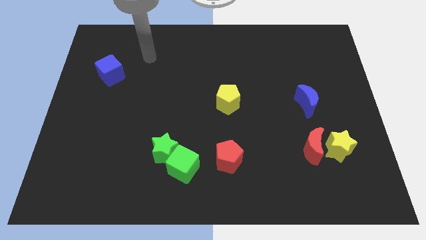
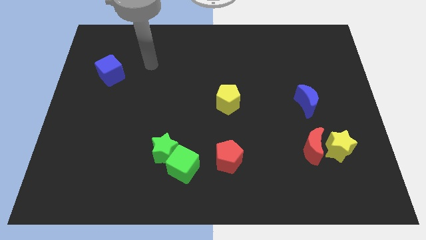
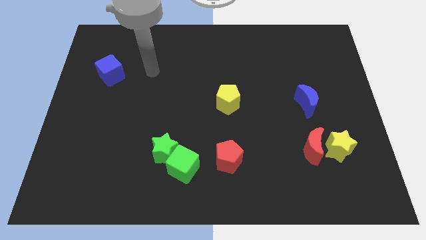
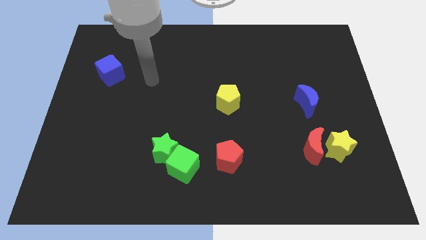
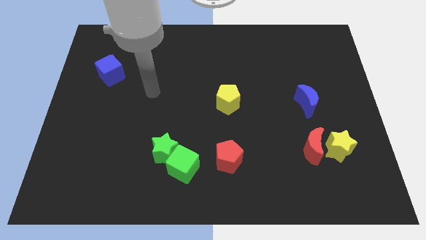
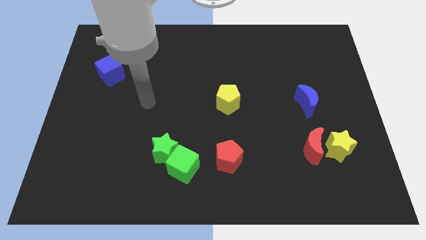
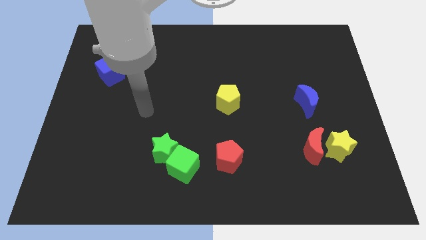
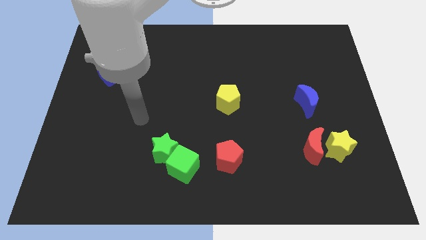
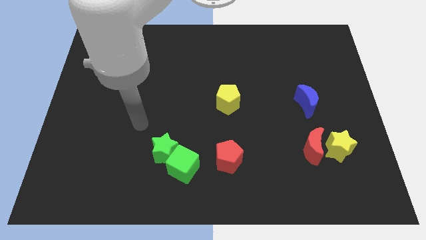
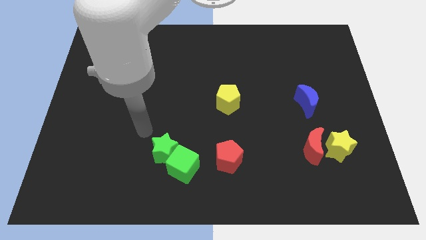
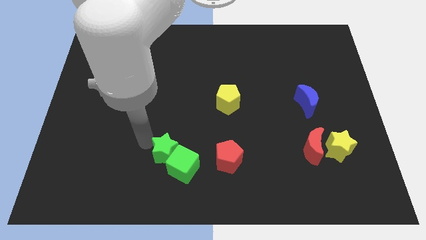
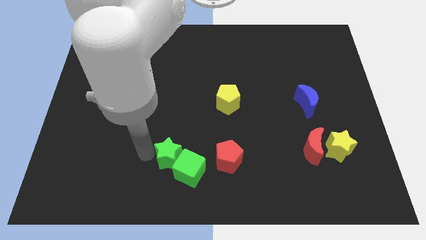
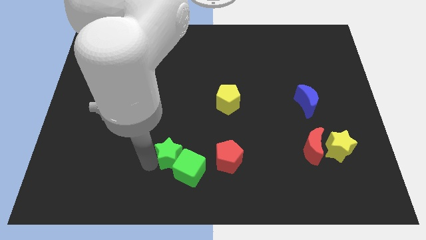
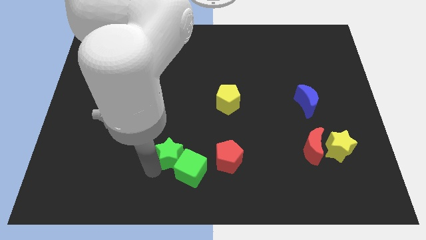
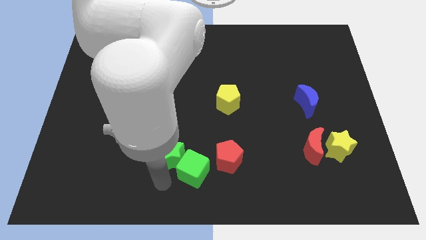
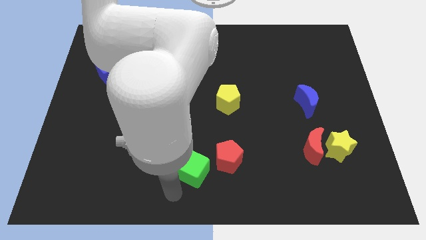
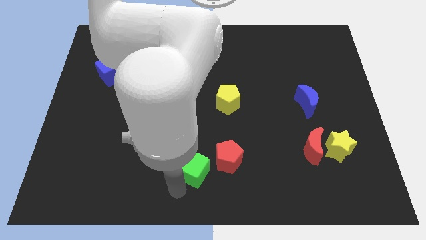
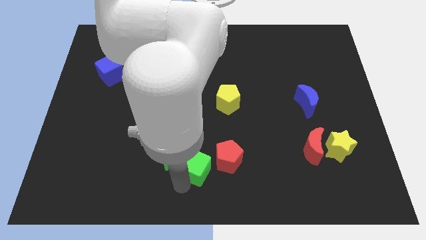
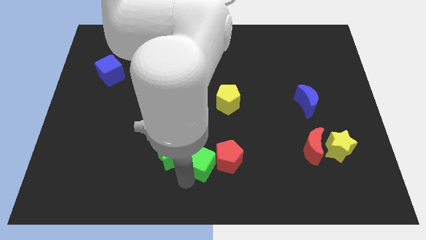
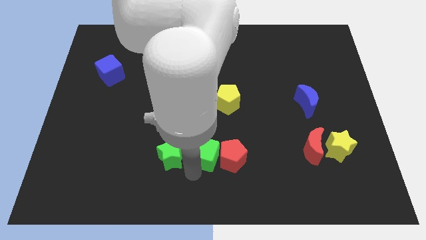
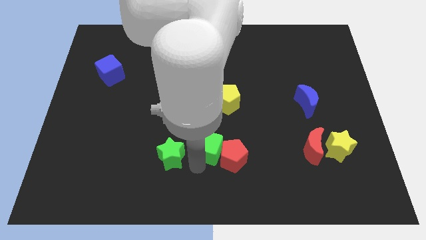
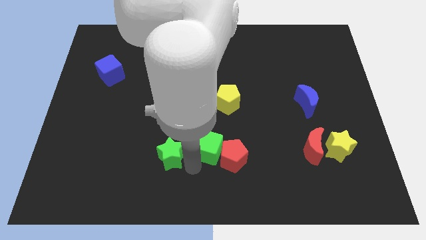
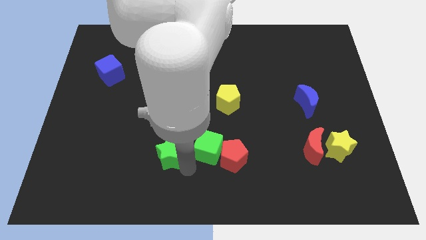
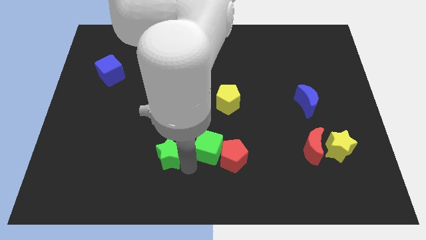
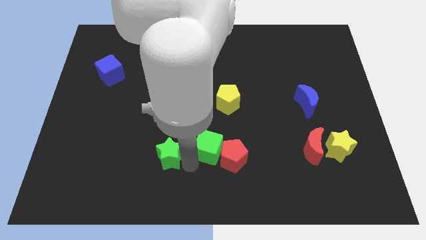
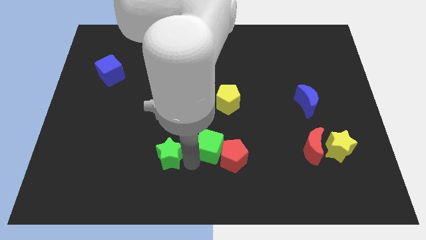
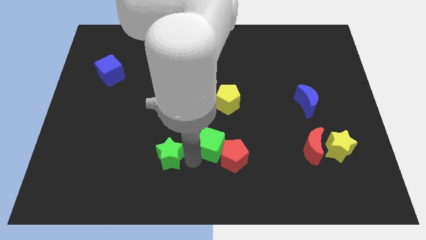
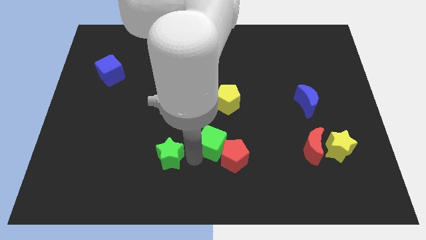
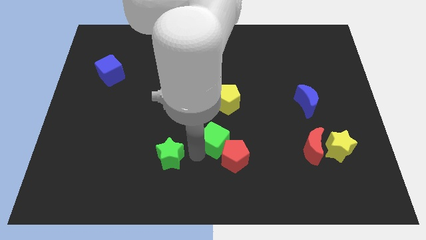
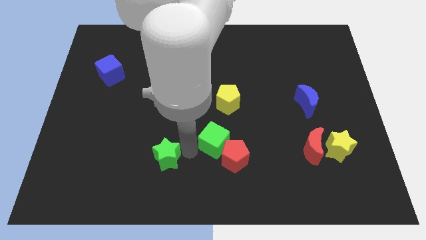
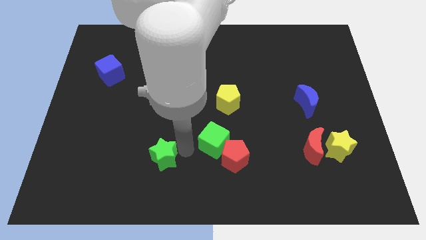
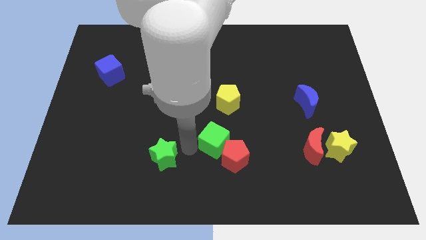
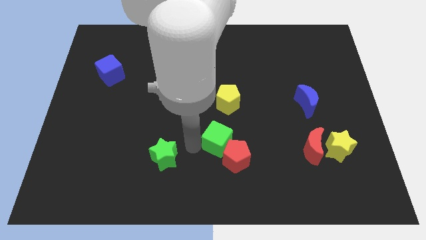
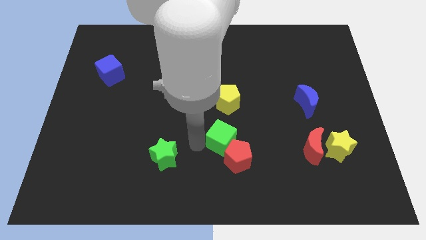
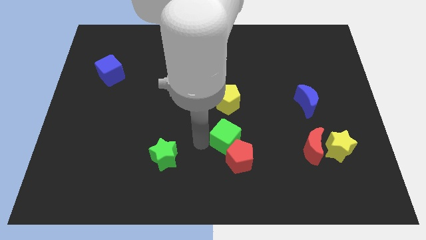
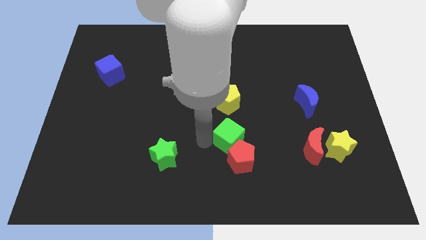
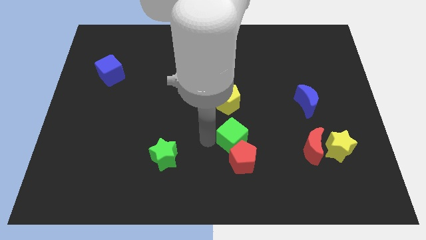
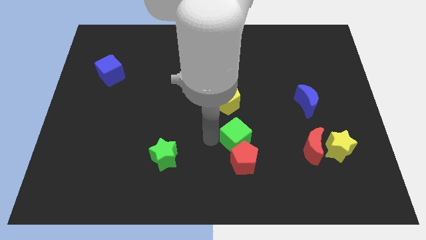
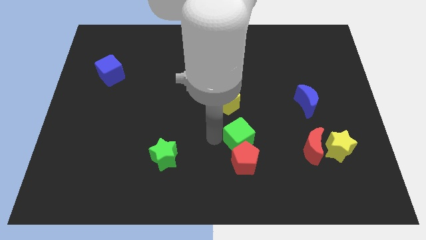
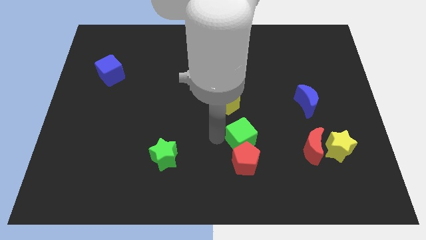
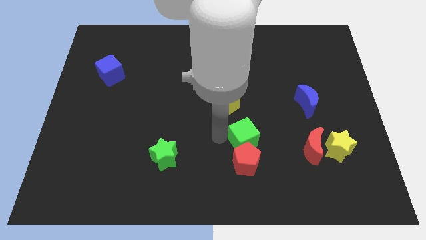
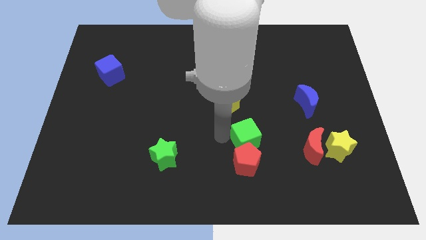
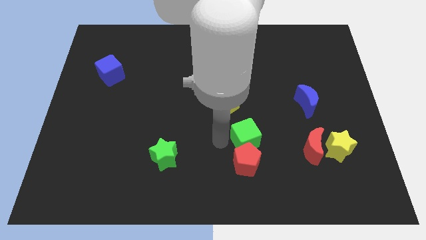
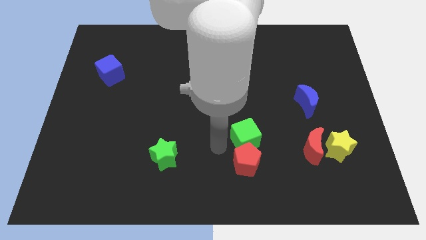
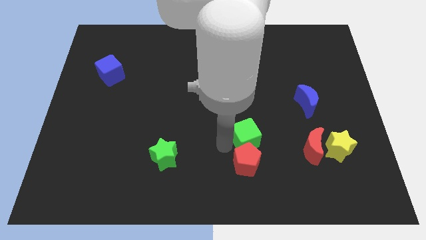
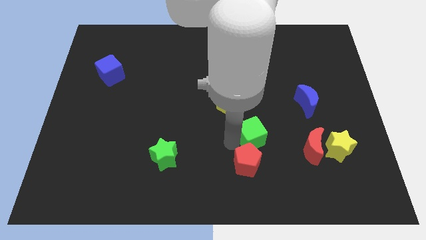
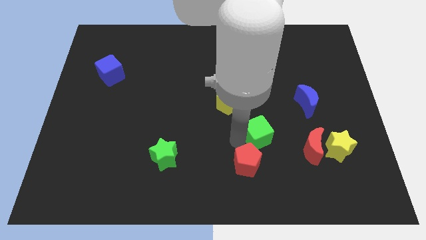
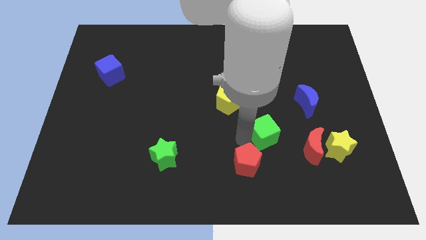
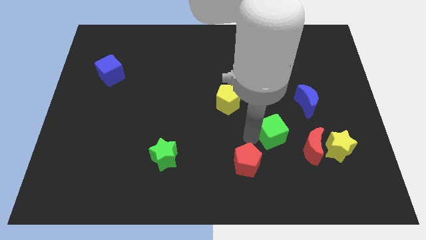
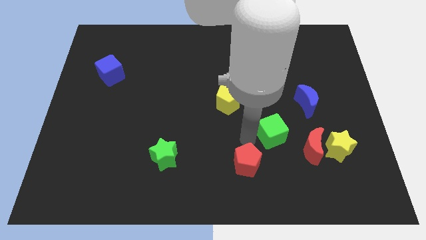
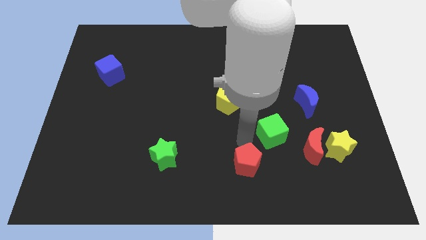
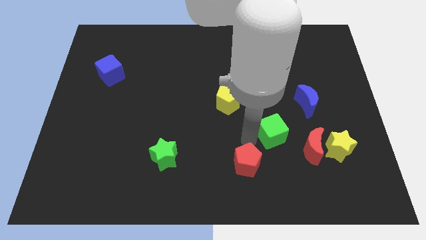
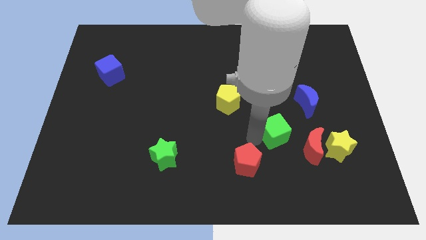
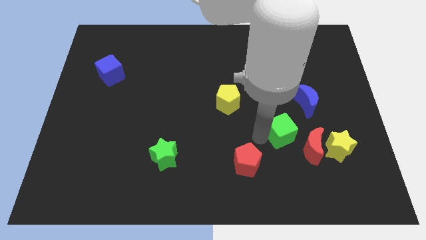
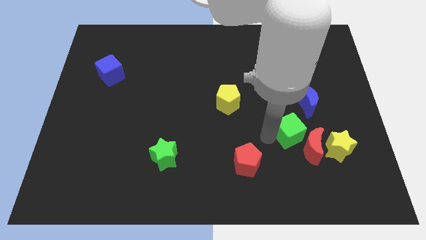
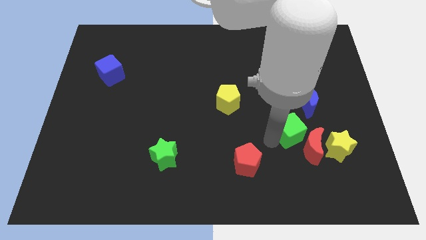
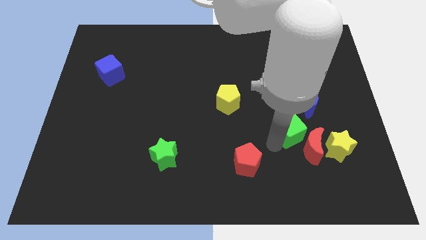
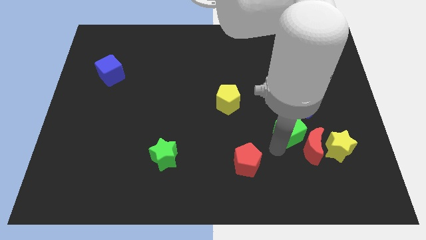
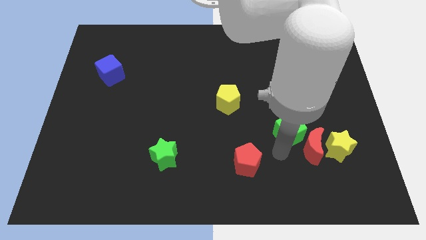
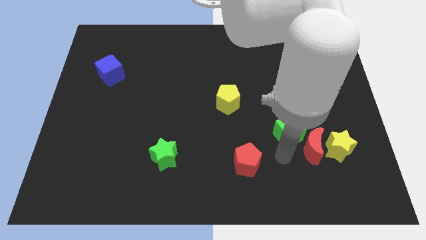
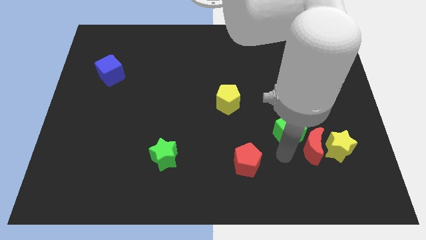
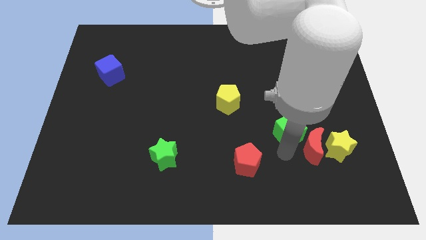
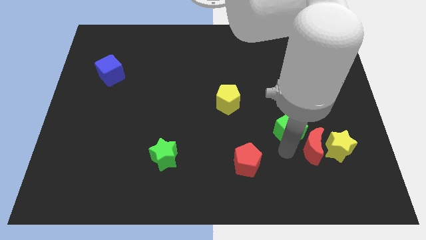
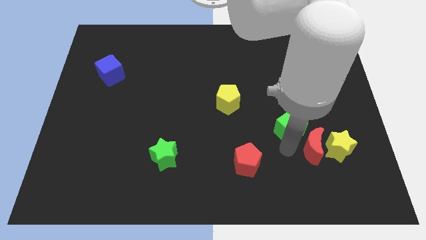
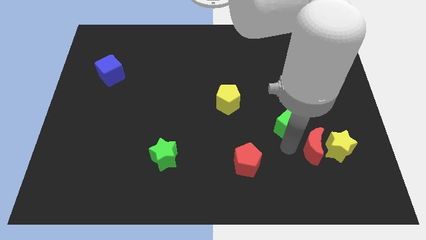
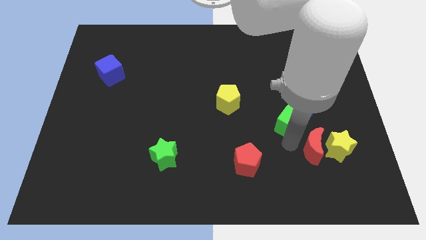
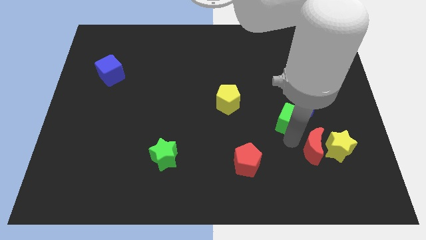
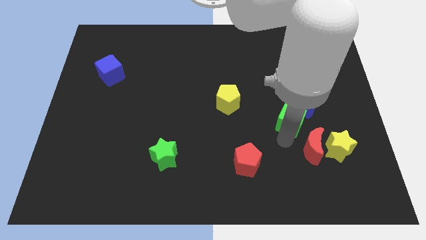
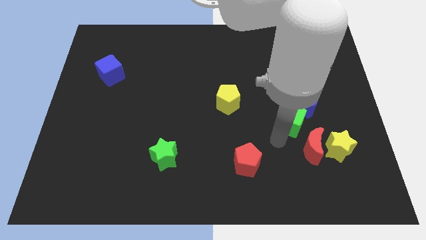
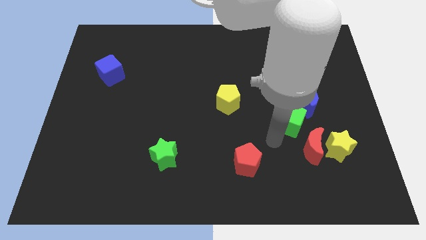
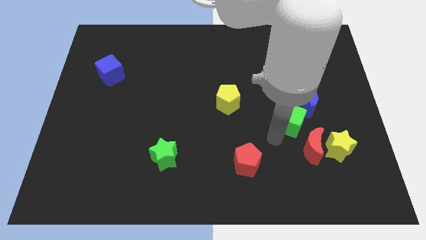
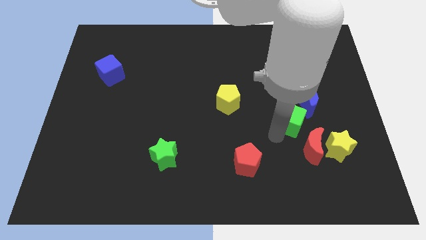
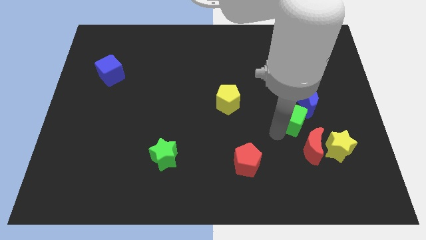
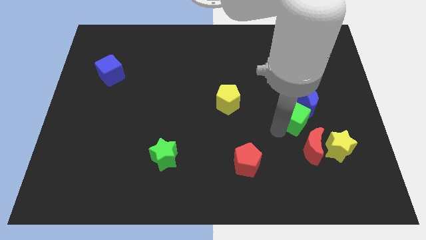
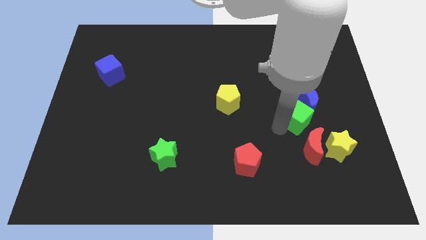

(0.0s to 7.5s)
slide the green cube to the blue moon
